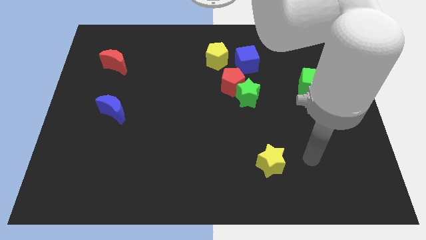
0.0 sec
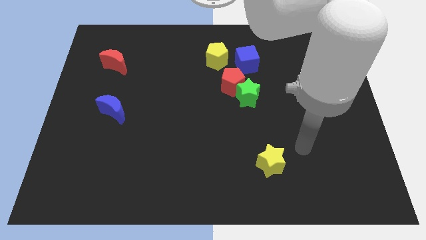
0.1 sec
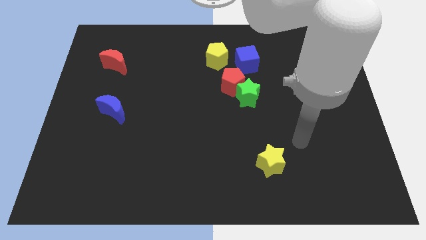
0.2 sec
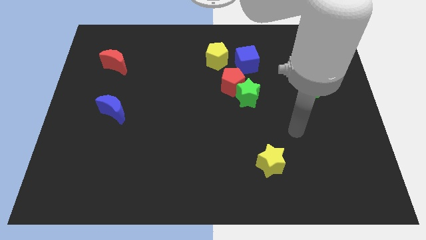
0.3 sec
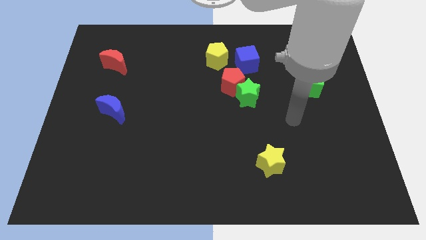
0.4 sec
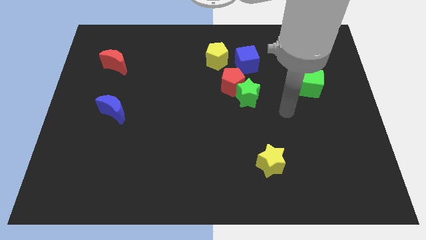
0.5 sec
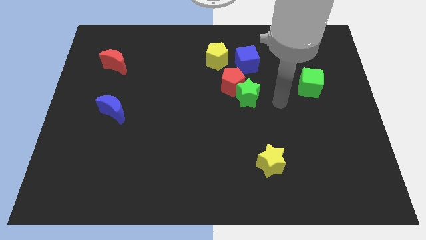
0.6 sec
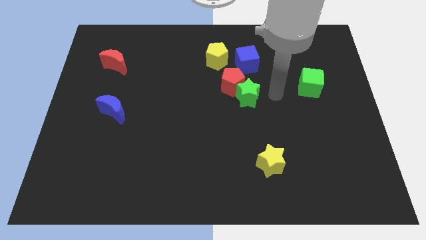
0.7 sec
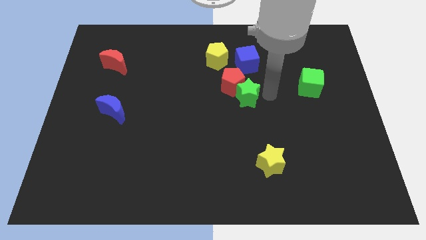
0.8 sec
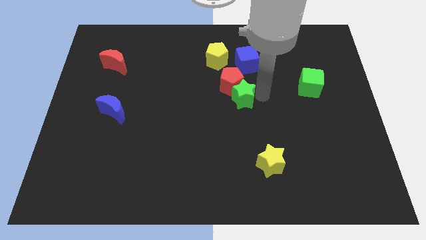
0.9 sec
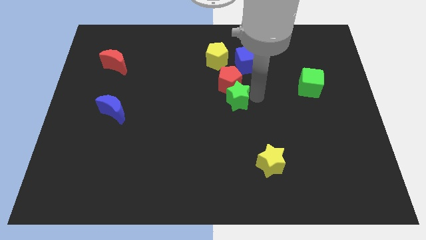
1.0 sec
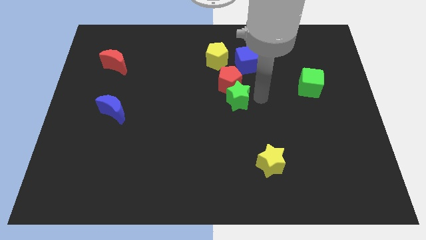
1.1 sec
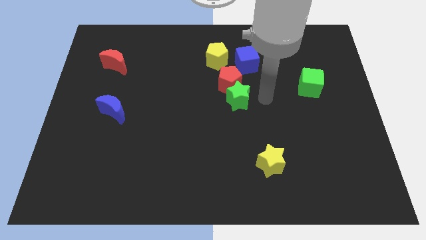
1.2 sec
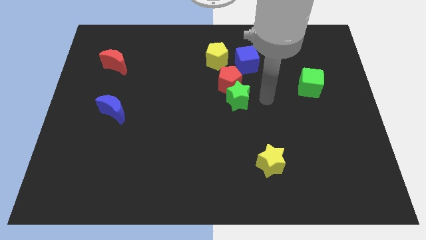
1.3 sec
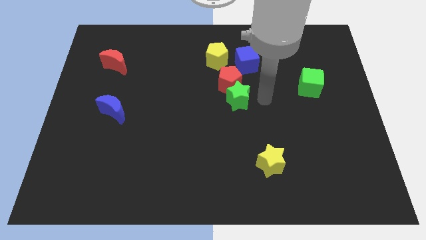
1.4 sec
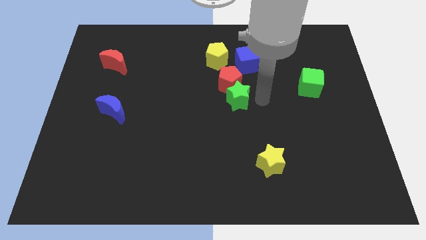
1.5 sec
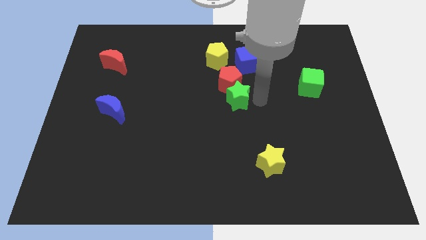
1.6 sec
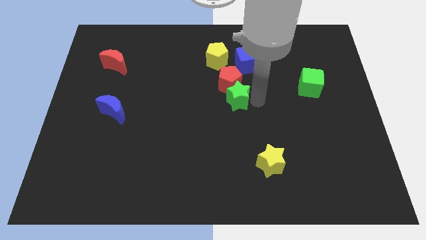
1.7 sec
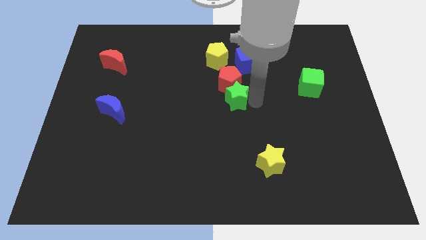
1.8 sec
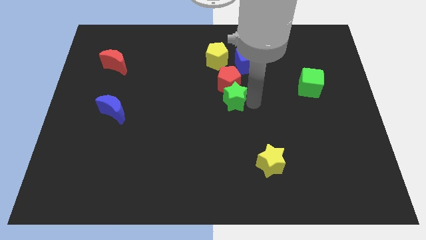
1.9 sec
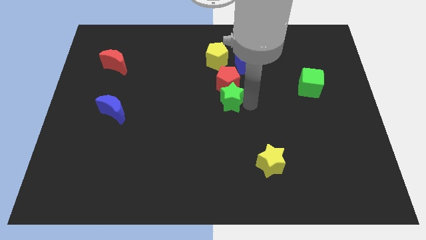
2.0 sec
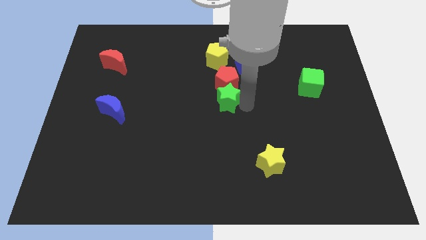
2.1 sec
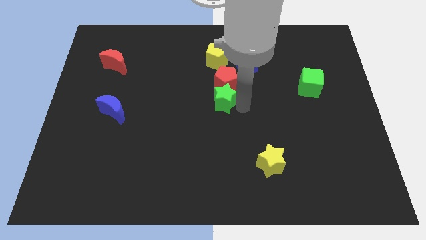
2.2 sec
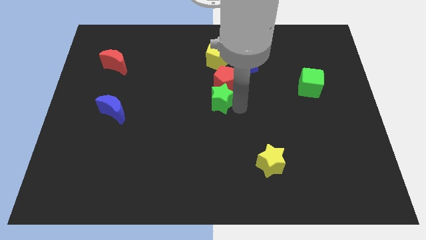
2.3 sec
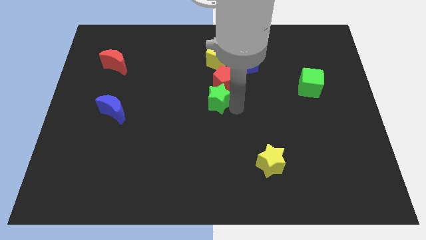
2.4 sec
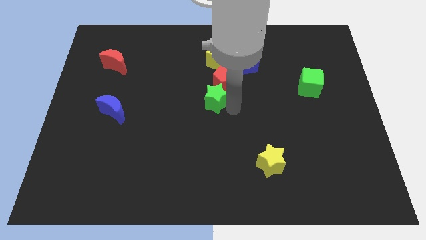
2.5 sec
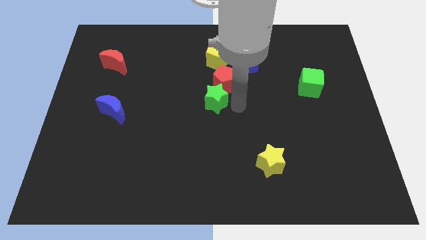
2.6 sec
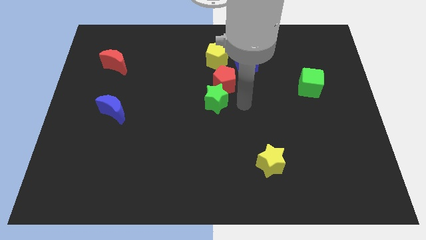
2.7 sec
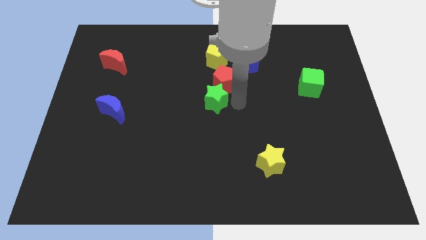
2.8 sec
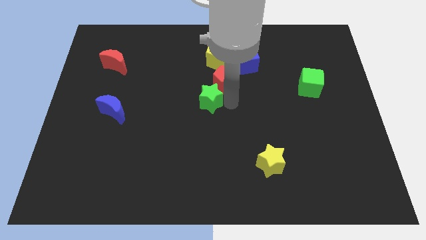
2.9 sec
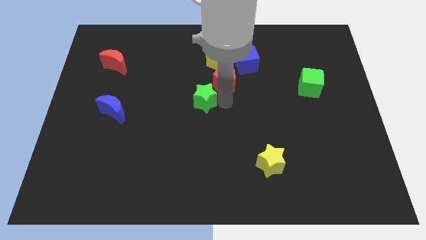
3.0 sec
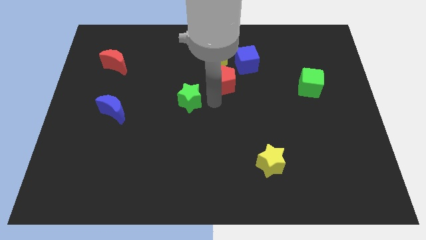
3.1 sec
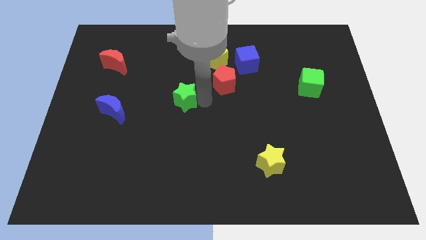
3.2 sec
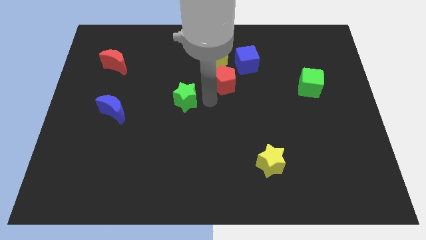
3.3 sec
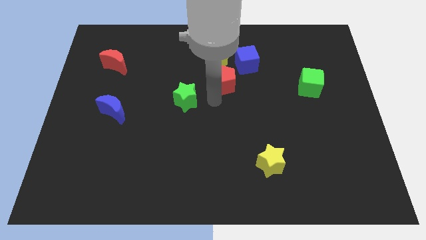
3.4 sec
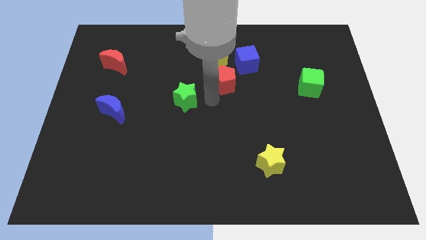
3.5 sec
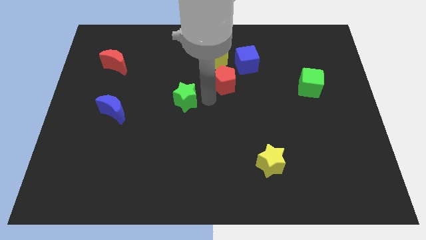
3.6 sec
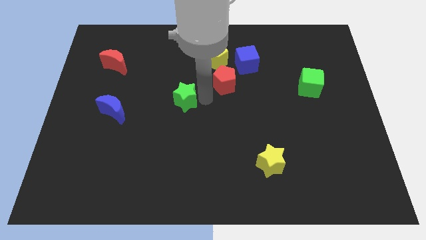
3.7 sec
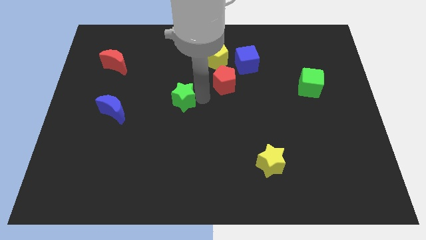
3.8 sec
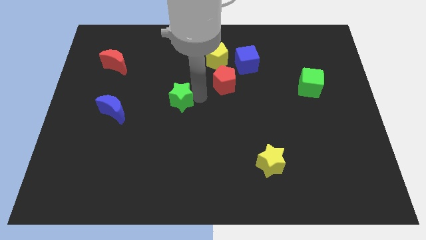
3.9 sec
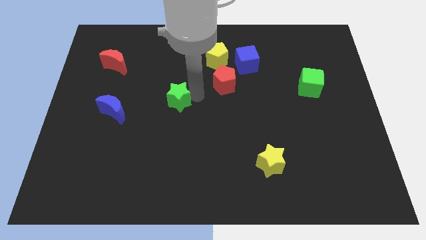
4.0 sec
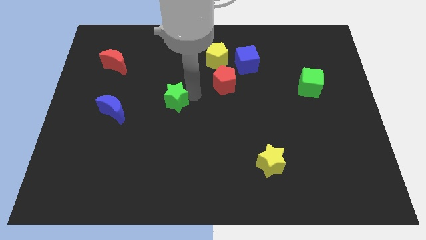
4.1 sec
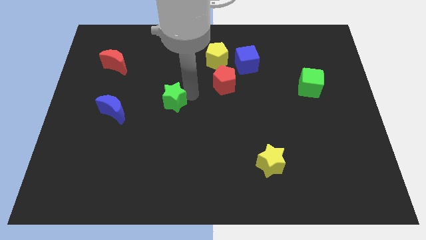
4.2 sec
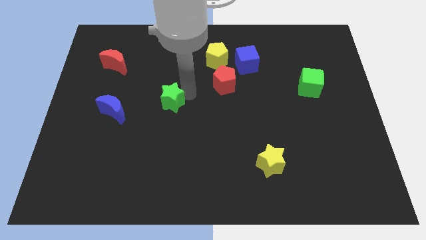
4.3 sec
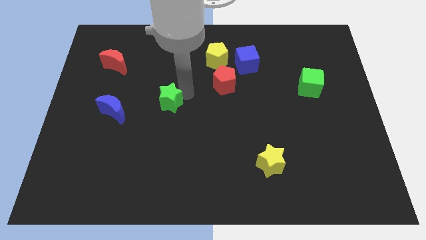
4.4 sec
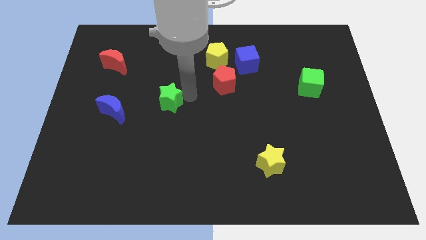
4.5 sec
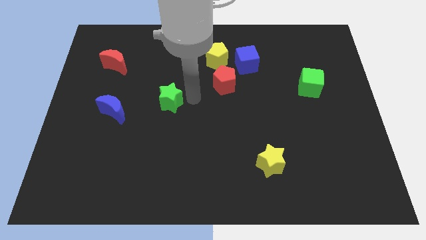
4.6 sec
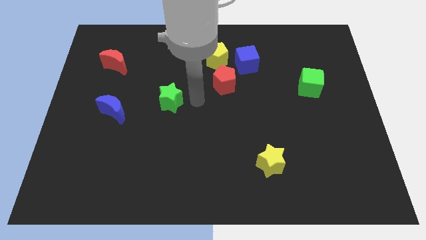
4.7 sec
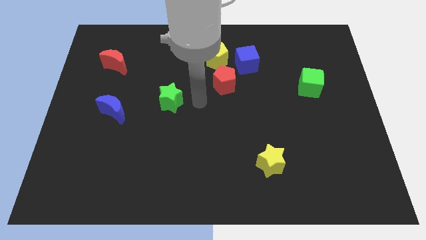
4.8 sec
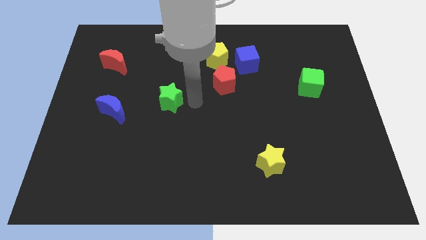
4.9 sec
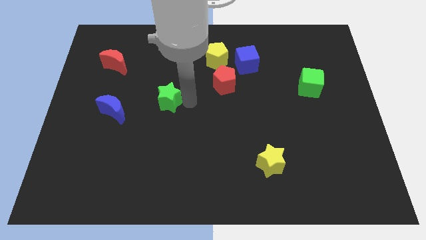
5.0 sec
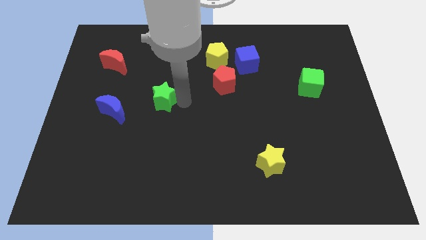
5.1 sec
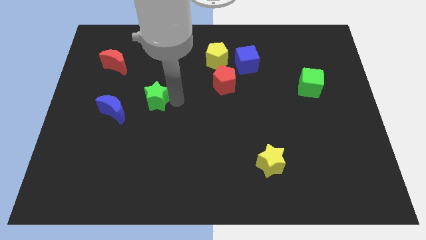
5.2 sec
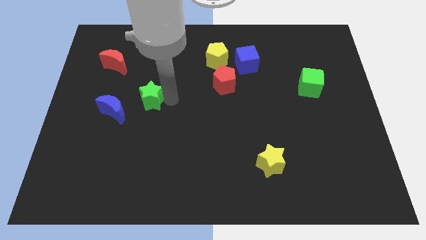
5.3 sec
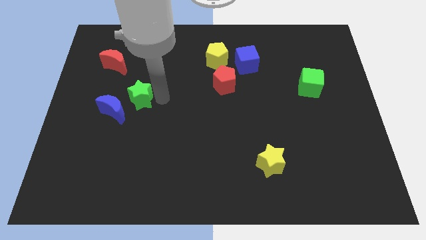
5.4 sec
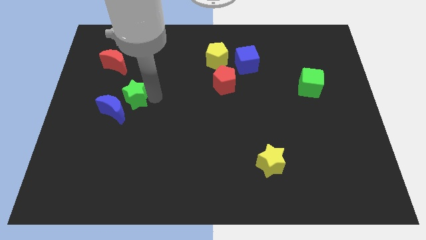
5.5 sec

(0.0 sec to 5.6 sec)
put the green star close to the blue moon

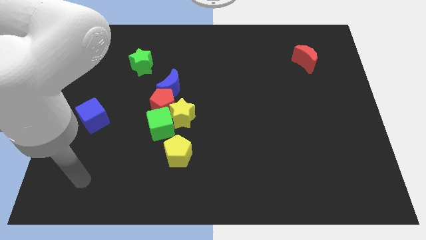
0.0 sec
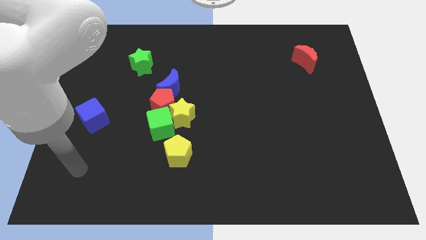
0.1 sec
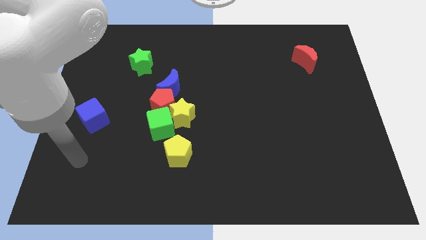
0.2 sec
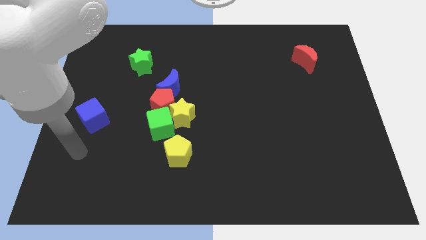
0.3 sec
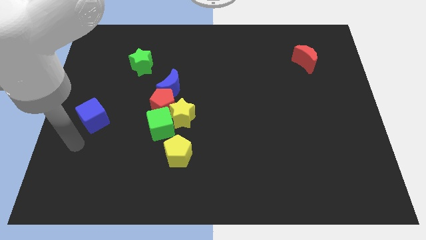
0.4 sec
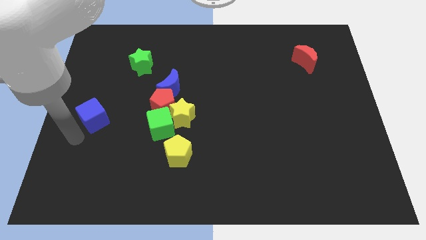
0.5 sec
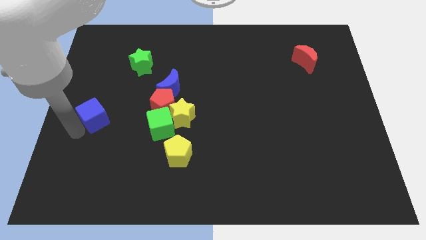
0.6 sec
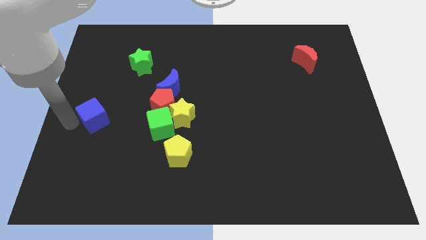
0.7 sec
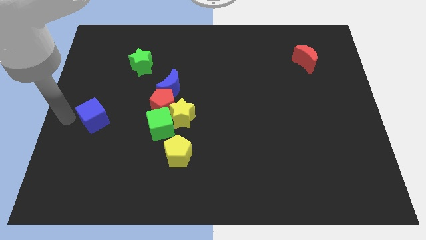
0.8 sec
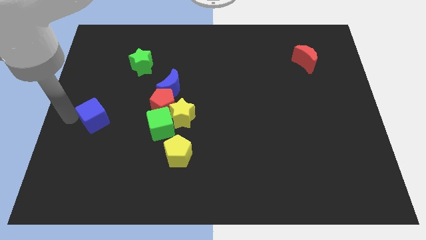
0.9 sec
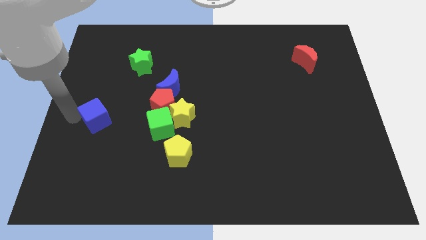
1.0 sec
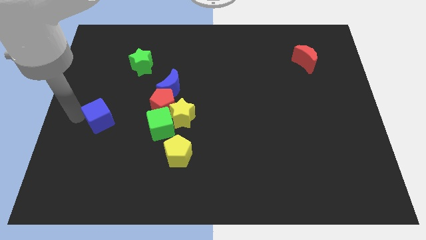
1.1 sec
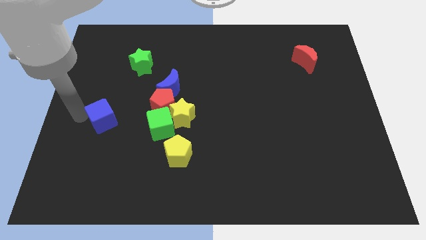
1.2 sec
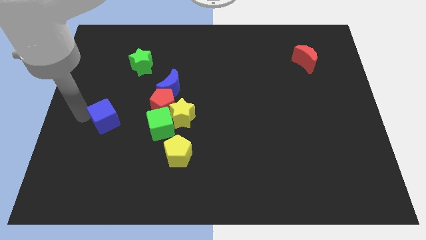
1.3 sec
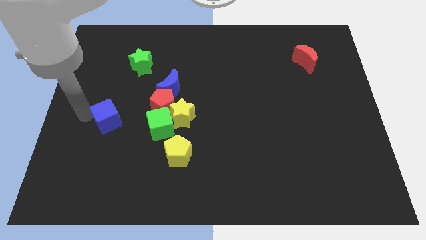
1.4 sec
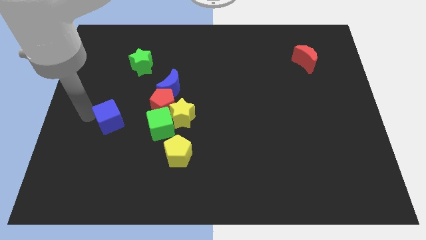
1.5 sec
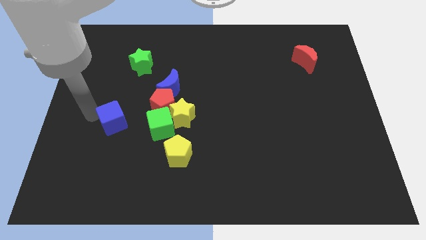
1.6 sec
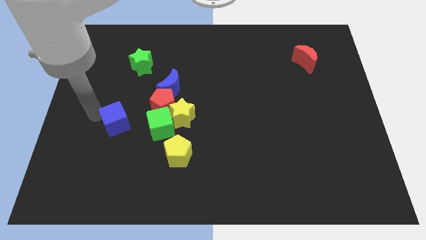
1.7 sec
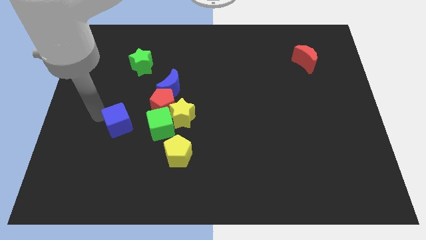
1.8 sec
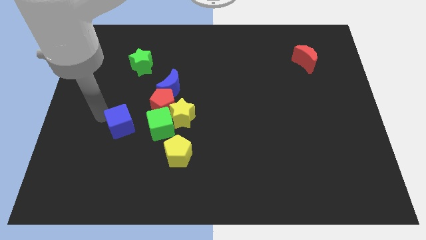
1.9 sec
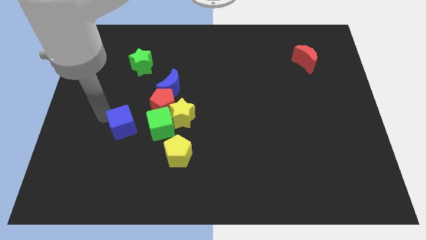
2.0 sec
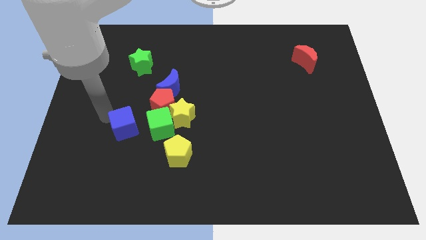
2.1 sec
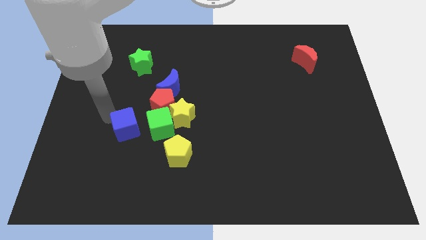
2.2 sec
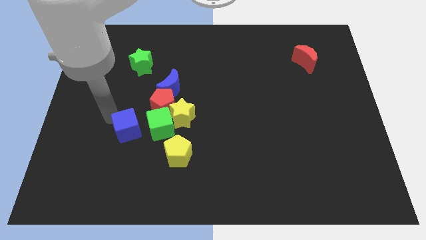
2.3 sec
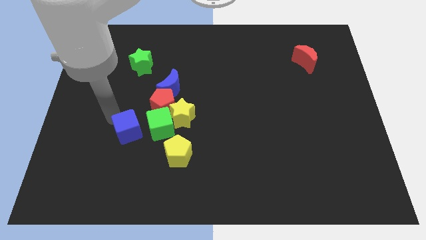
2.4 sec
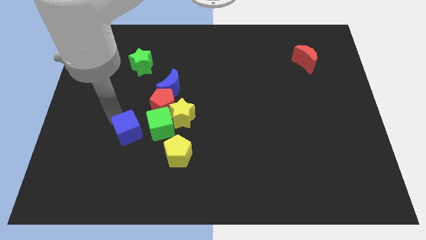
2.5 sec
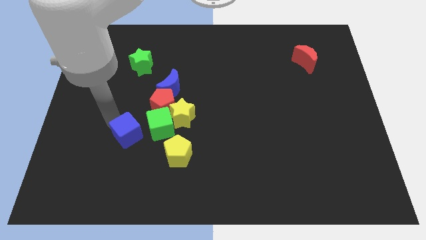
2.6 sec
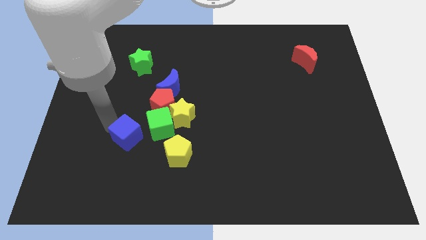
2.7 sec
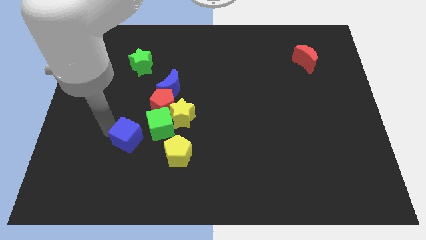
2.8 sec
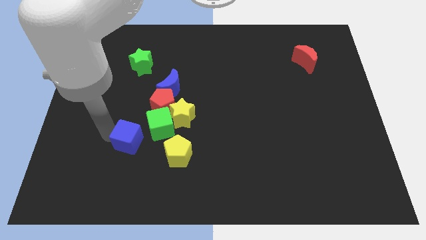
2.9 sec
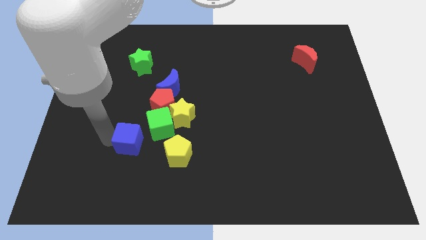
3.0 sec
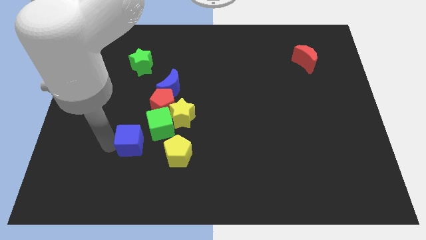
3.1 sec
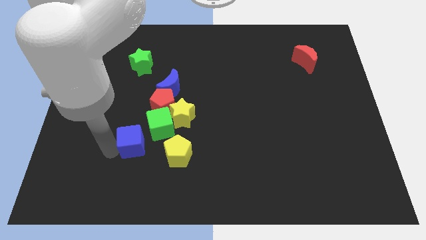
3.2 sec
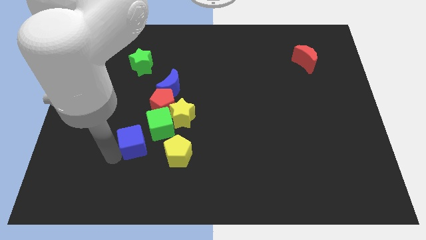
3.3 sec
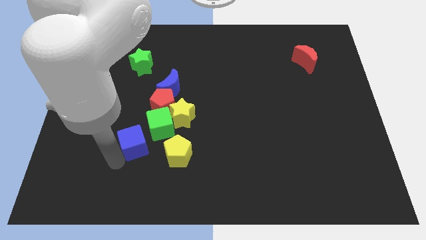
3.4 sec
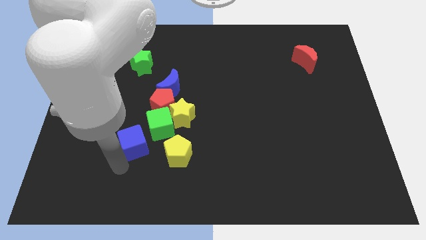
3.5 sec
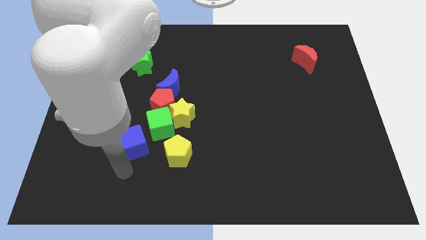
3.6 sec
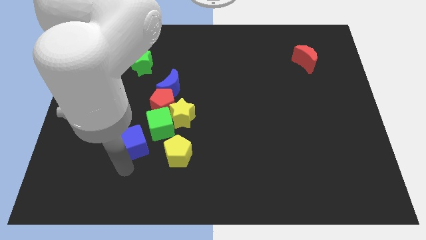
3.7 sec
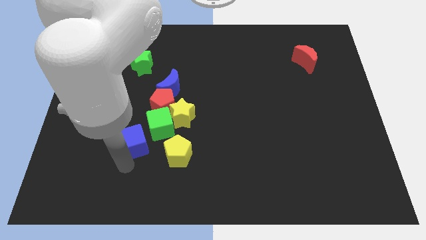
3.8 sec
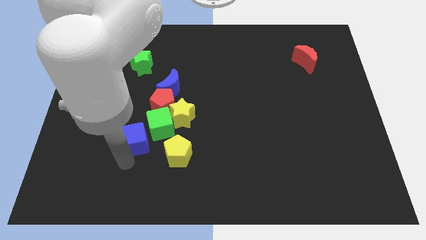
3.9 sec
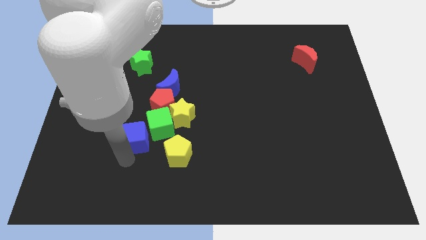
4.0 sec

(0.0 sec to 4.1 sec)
put the blue cube next to the green cube
